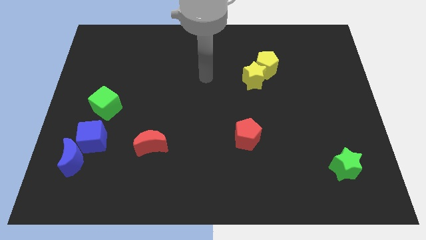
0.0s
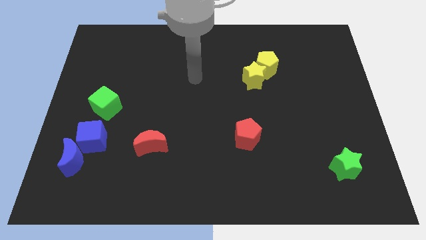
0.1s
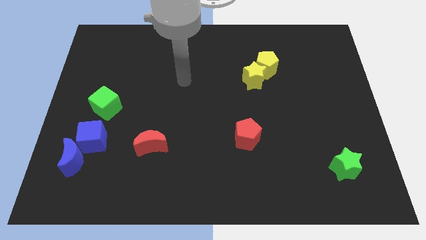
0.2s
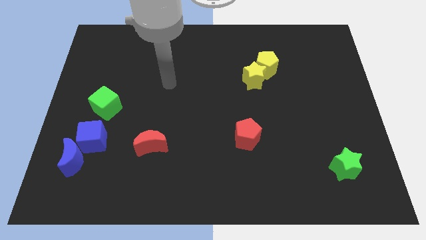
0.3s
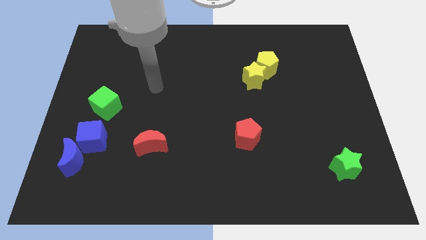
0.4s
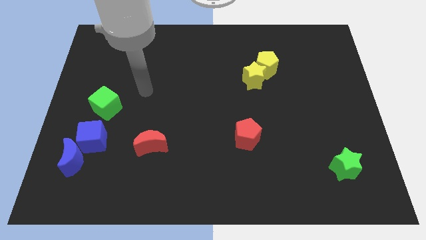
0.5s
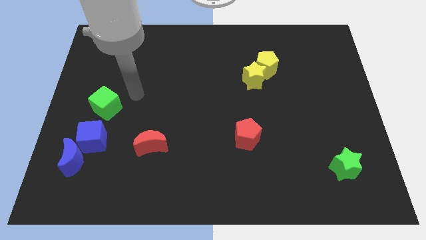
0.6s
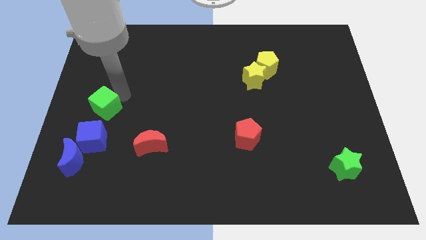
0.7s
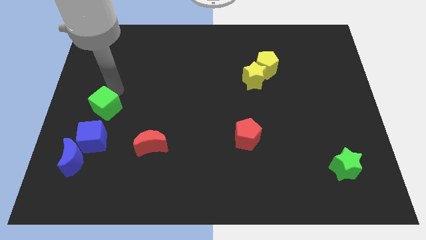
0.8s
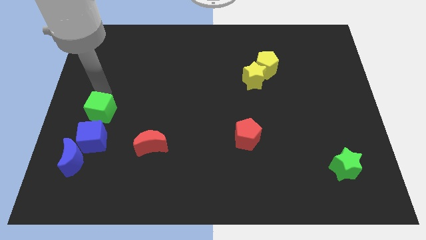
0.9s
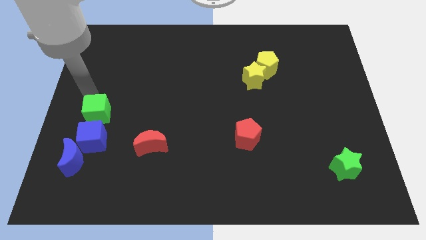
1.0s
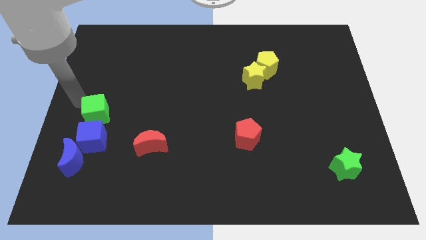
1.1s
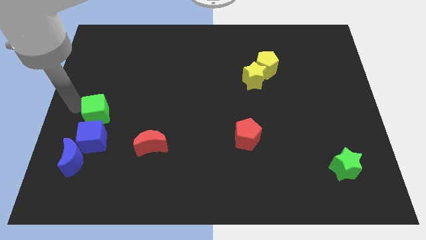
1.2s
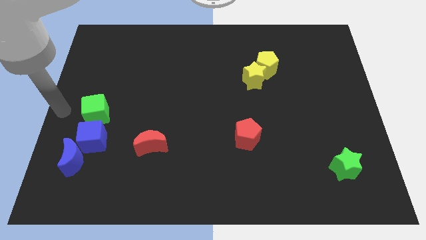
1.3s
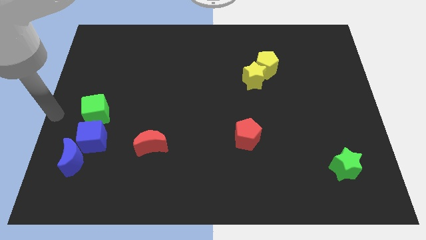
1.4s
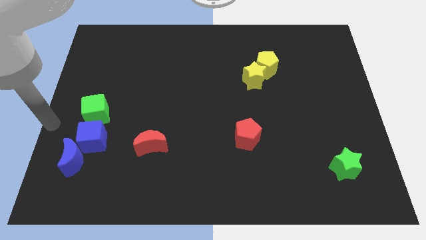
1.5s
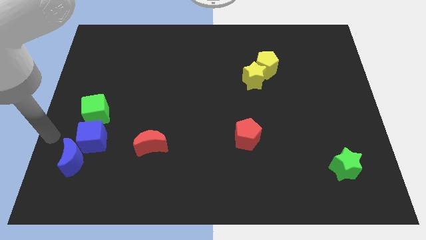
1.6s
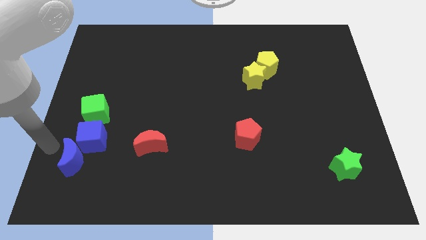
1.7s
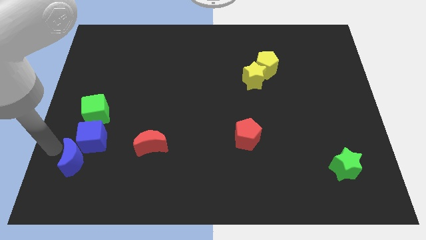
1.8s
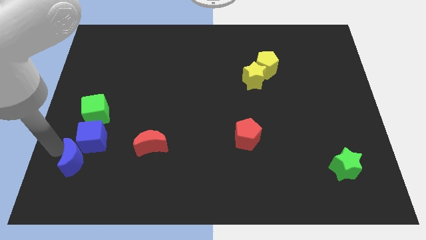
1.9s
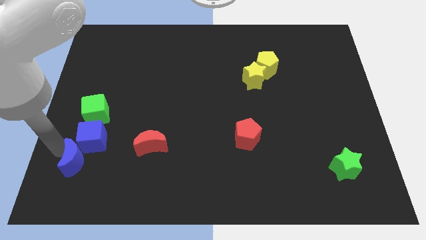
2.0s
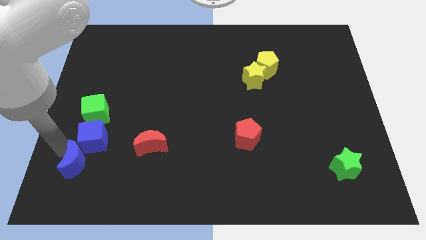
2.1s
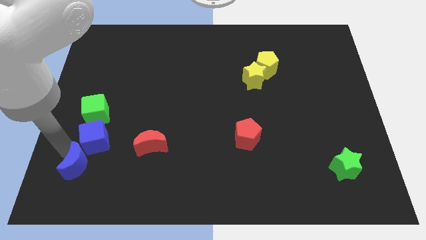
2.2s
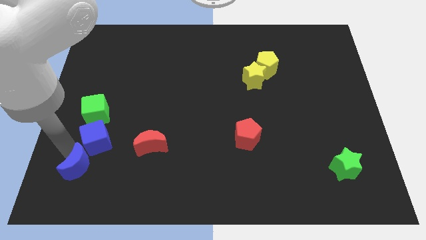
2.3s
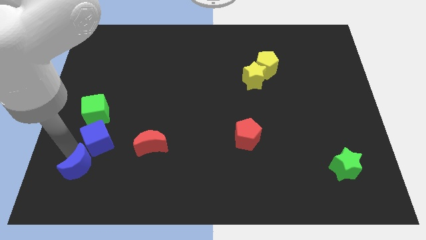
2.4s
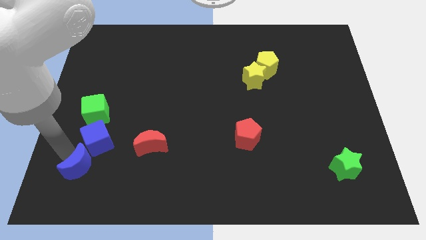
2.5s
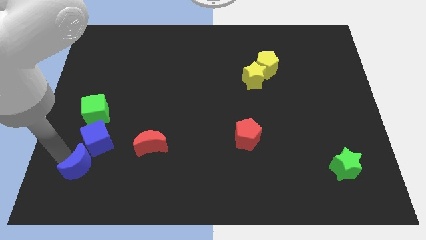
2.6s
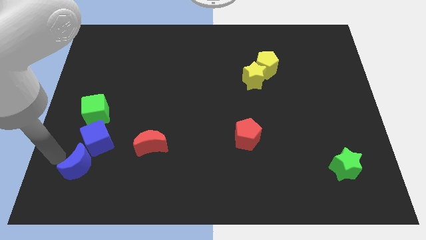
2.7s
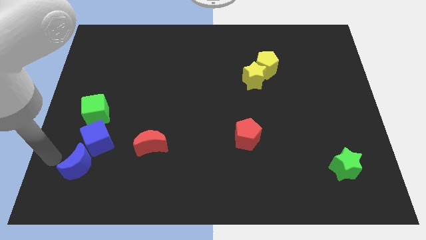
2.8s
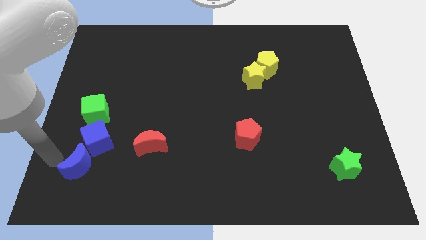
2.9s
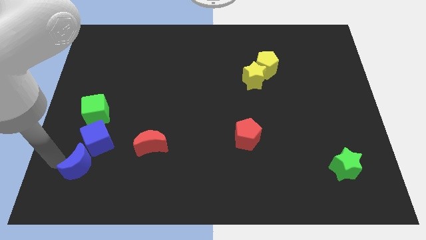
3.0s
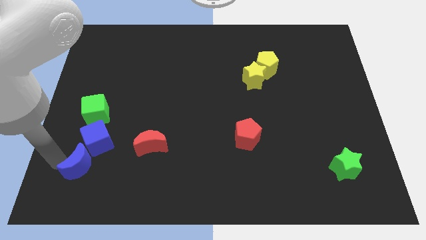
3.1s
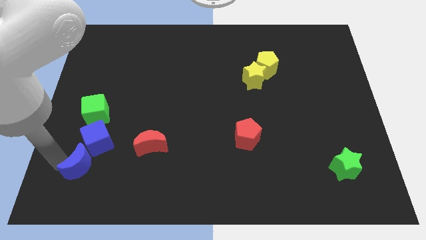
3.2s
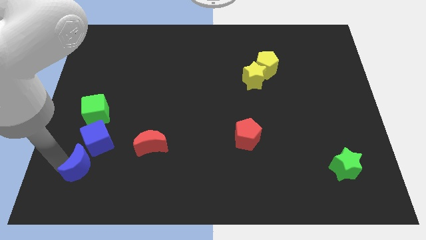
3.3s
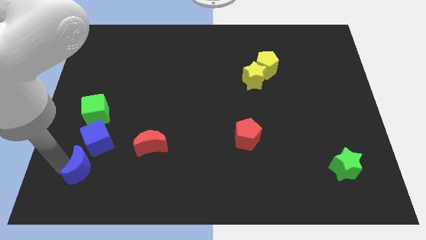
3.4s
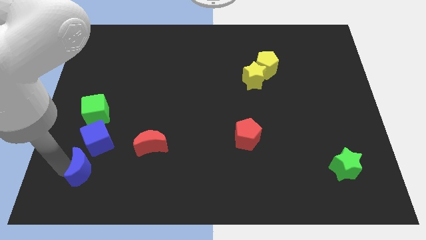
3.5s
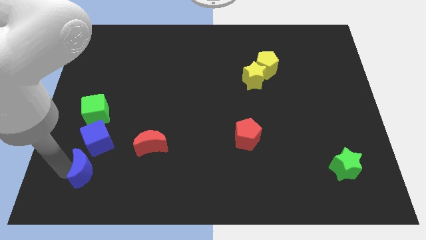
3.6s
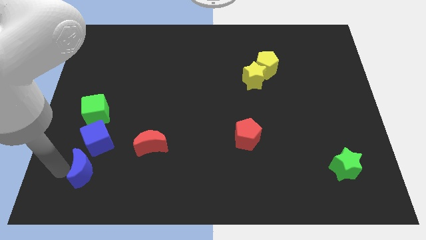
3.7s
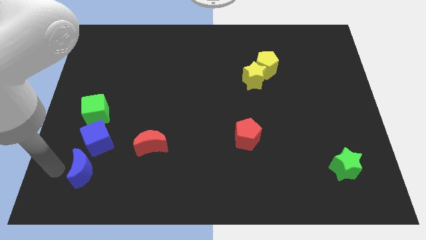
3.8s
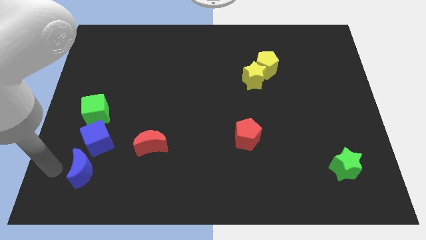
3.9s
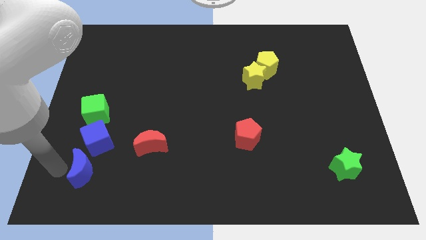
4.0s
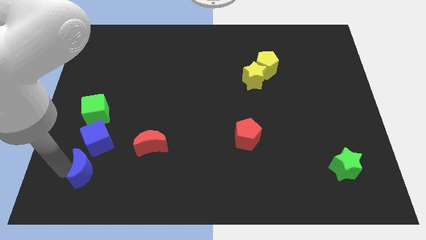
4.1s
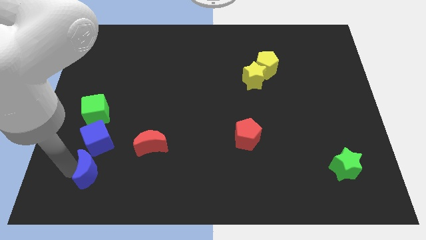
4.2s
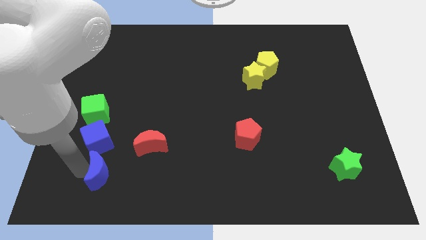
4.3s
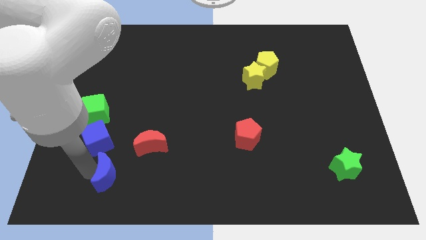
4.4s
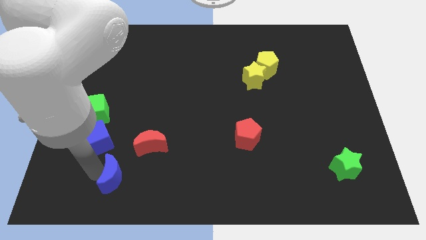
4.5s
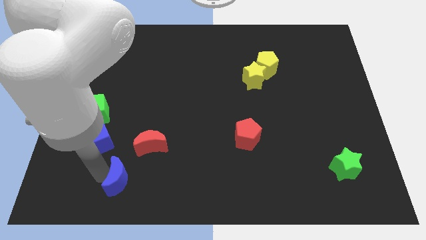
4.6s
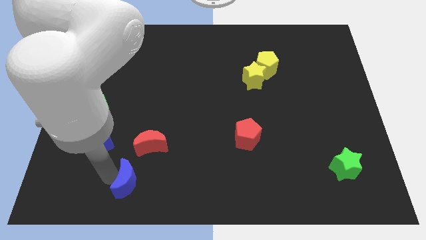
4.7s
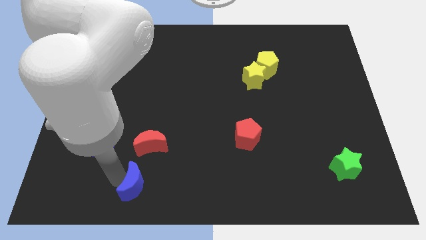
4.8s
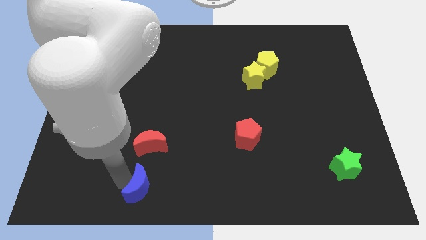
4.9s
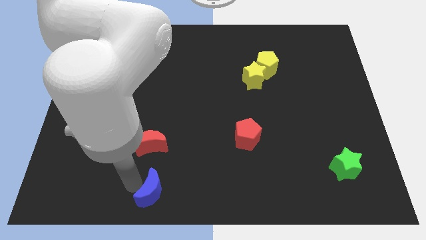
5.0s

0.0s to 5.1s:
push the blue moon to the bottom side

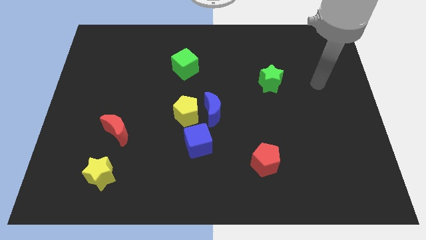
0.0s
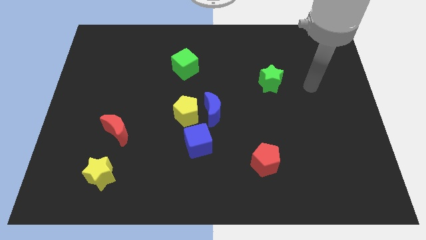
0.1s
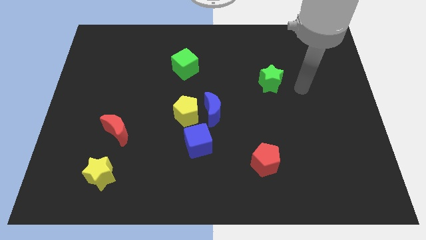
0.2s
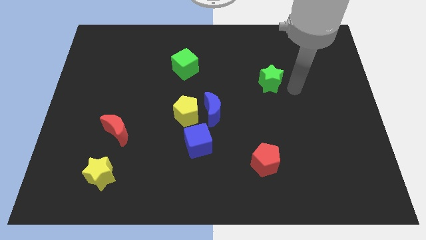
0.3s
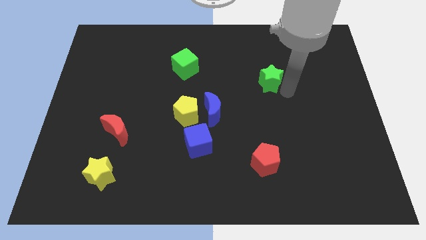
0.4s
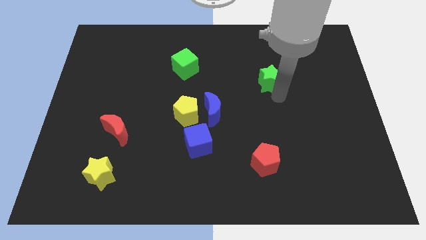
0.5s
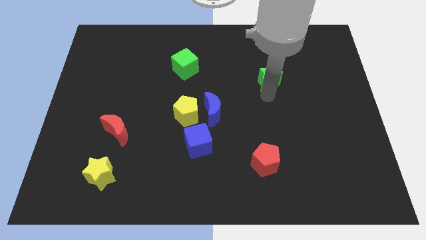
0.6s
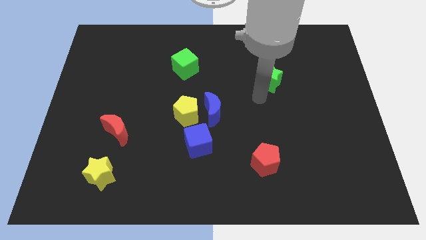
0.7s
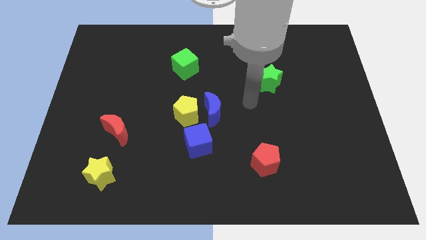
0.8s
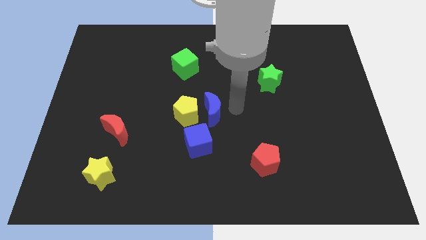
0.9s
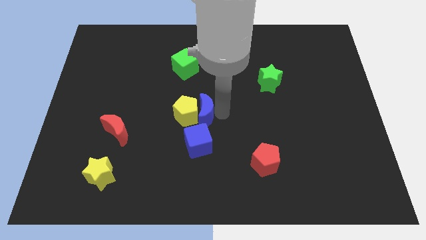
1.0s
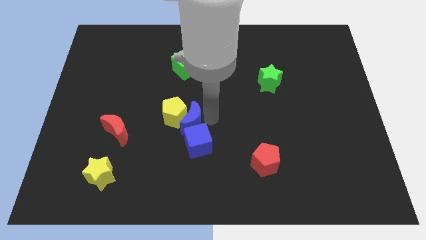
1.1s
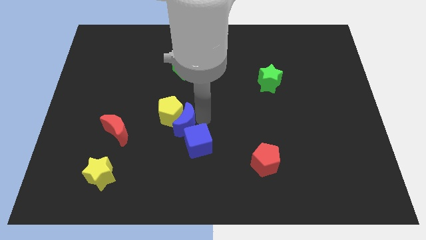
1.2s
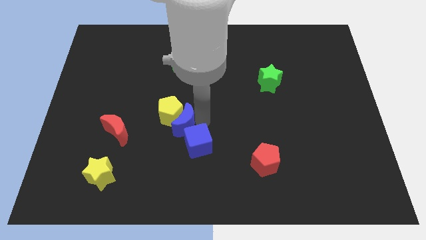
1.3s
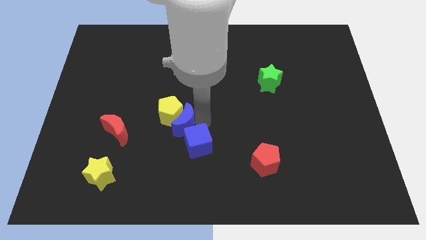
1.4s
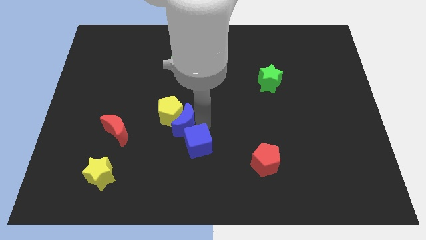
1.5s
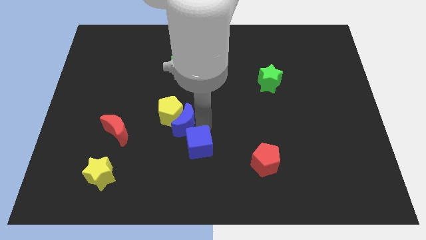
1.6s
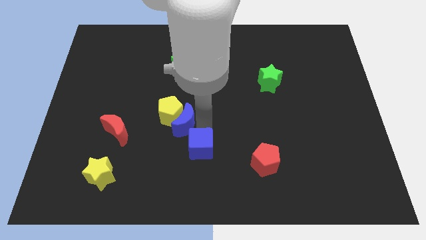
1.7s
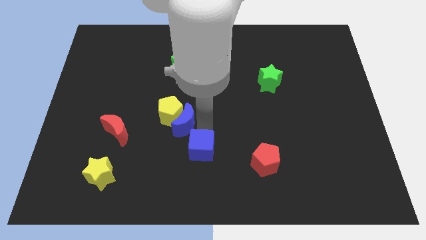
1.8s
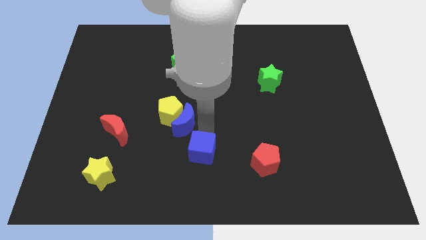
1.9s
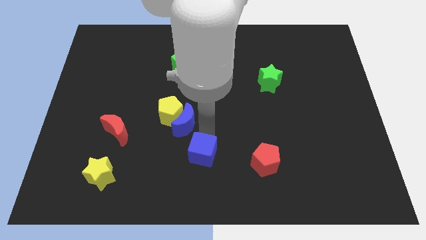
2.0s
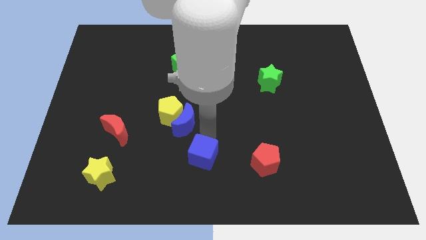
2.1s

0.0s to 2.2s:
move the blue cube to the bottom side
